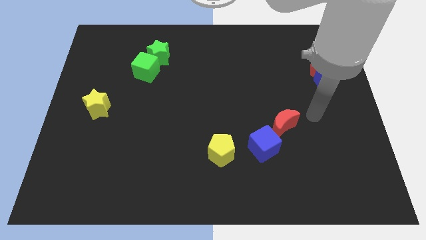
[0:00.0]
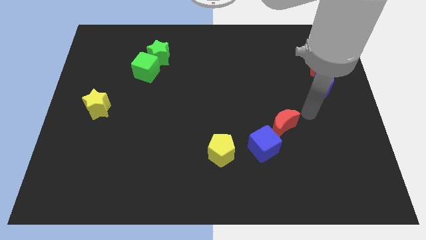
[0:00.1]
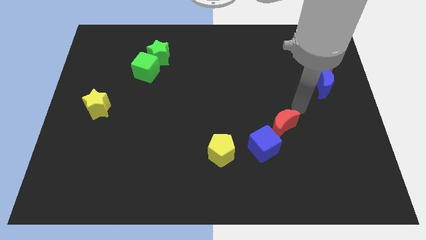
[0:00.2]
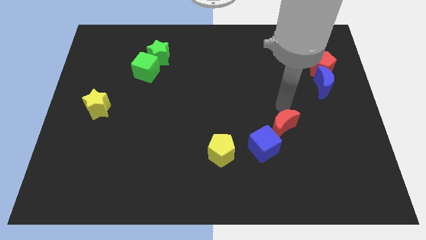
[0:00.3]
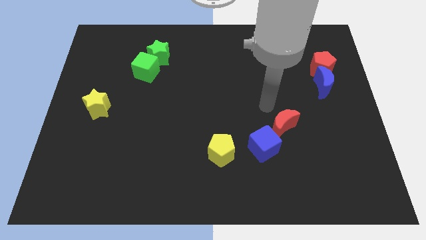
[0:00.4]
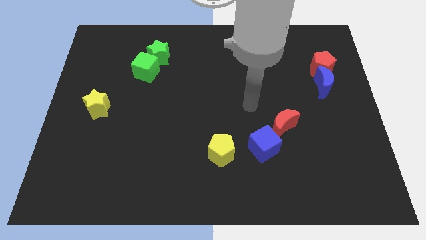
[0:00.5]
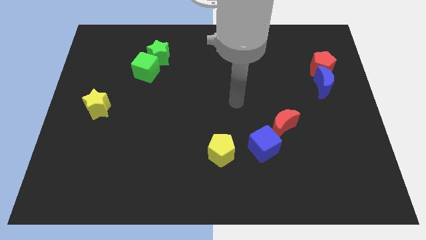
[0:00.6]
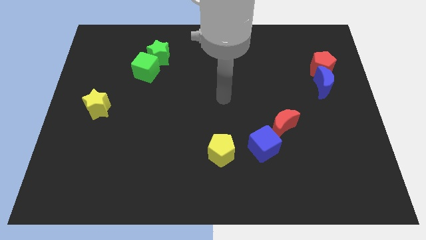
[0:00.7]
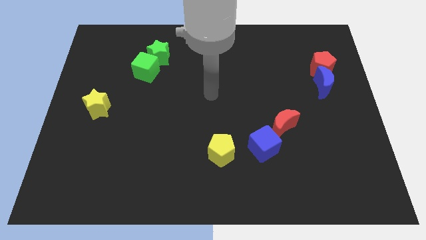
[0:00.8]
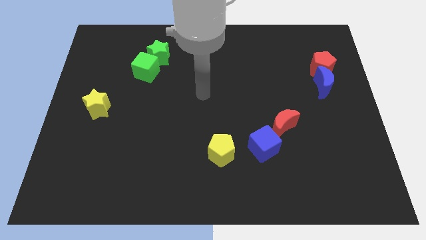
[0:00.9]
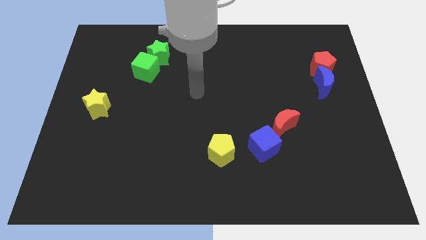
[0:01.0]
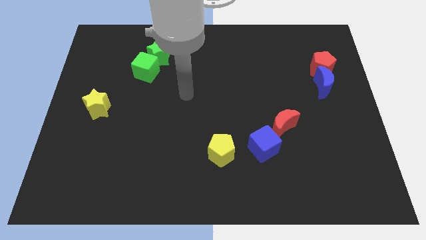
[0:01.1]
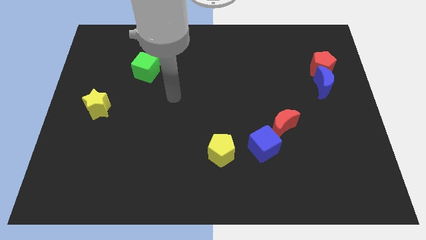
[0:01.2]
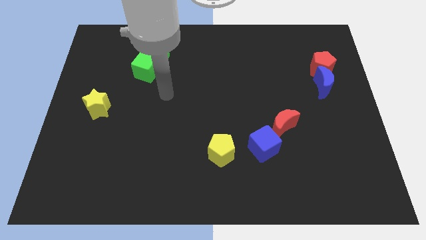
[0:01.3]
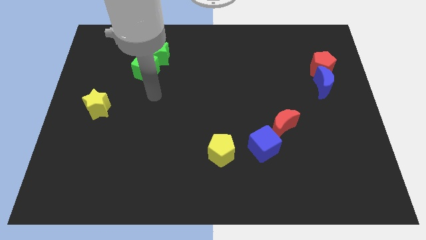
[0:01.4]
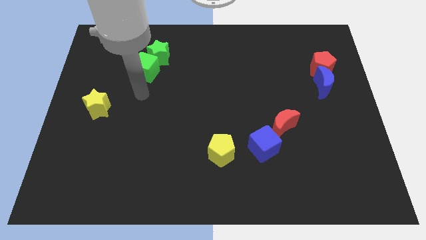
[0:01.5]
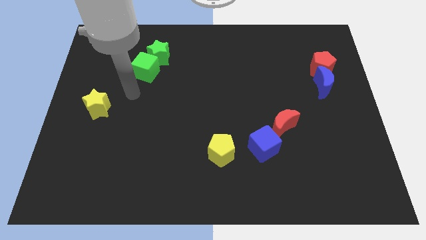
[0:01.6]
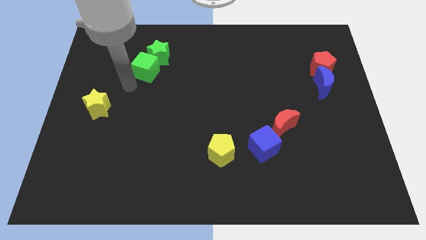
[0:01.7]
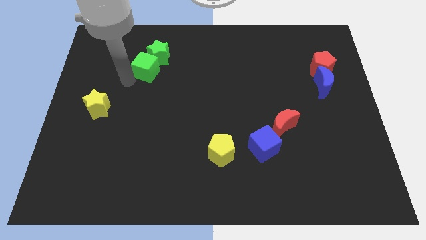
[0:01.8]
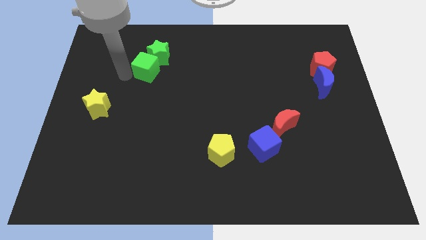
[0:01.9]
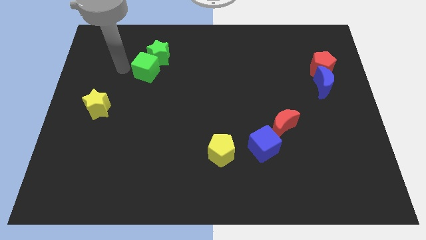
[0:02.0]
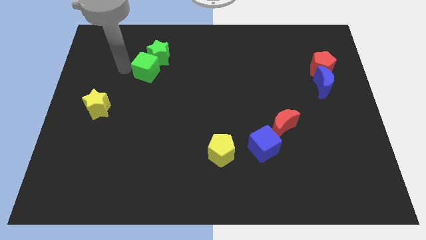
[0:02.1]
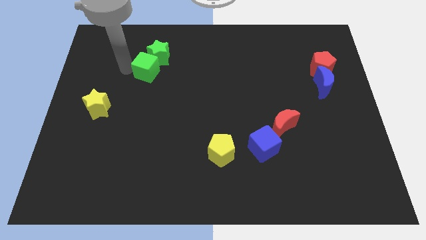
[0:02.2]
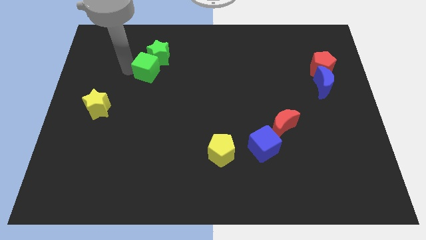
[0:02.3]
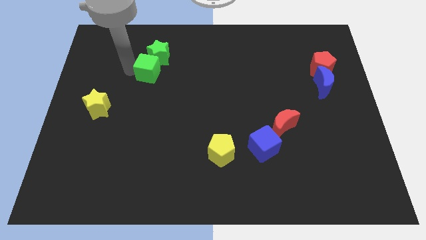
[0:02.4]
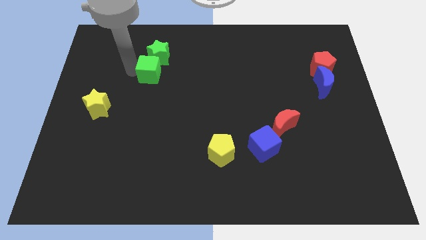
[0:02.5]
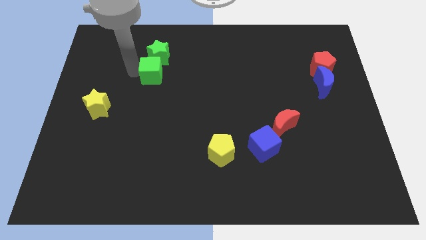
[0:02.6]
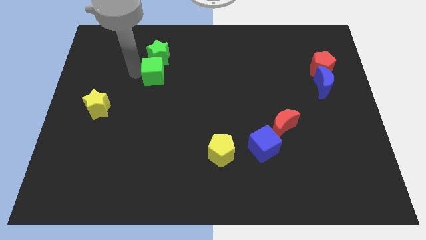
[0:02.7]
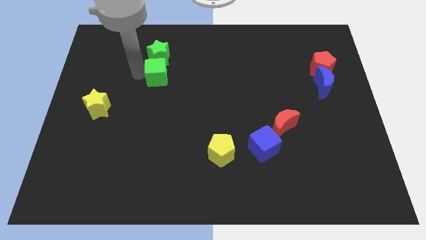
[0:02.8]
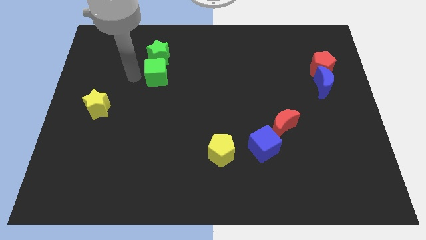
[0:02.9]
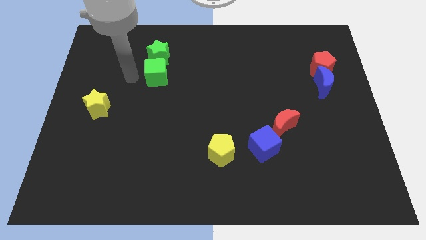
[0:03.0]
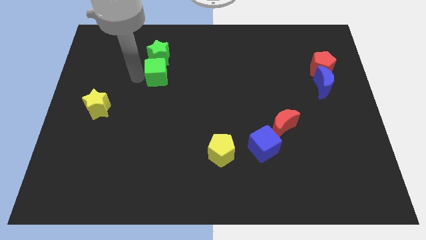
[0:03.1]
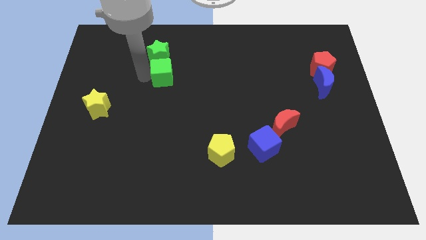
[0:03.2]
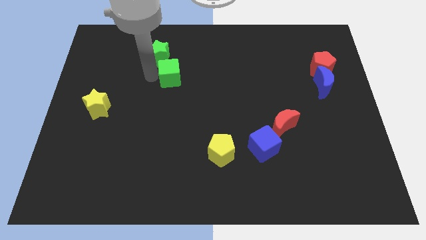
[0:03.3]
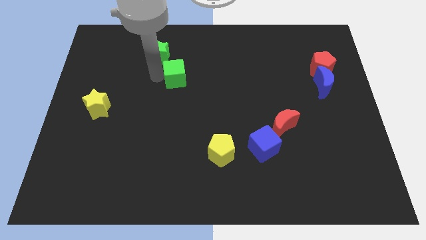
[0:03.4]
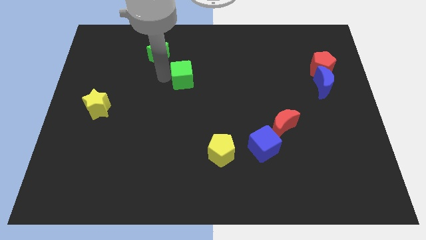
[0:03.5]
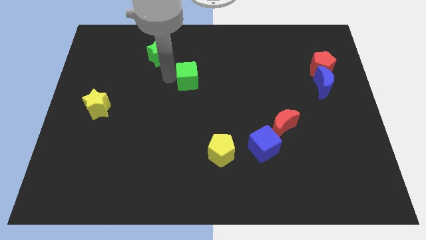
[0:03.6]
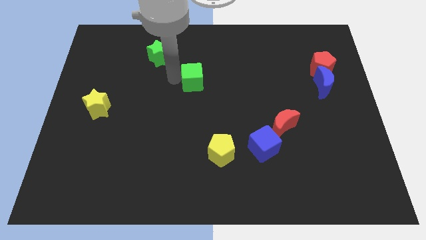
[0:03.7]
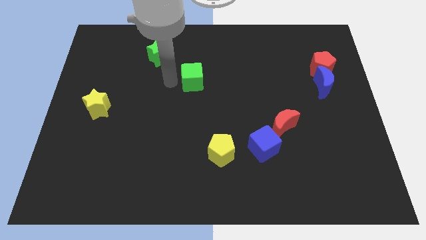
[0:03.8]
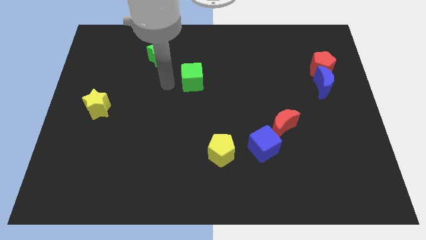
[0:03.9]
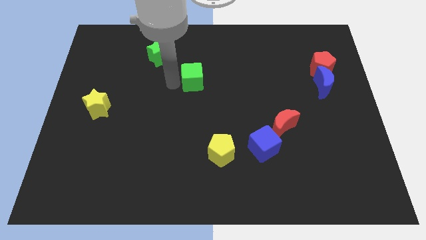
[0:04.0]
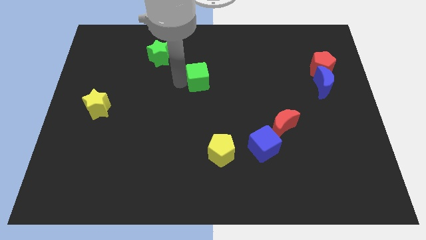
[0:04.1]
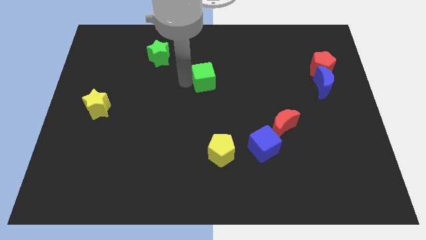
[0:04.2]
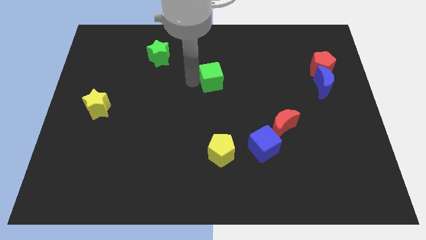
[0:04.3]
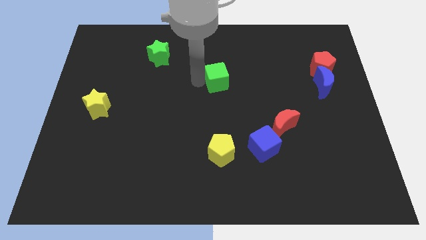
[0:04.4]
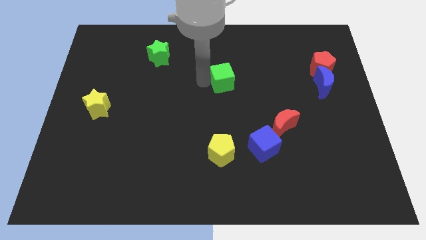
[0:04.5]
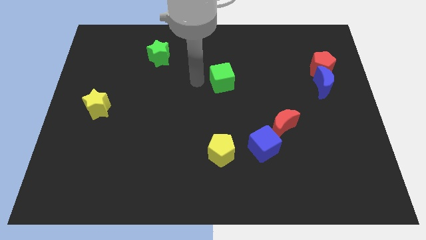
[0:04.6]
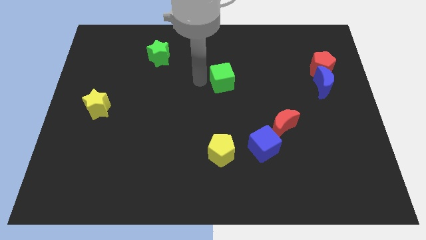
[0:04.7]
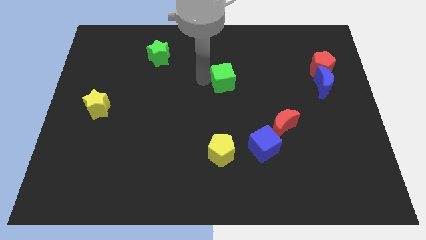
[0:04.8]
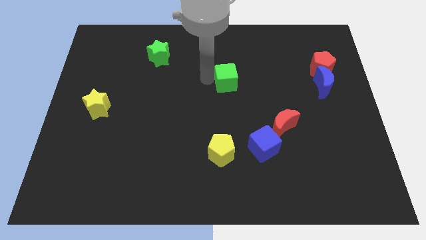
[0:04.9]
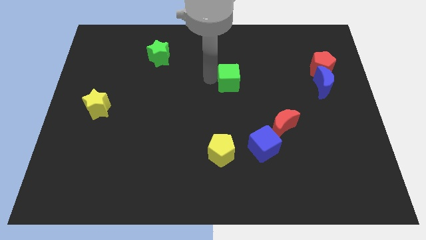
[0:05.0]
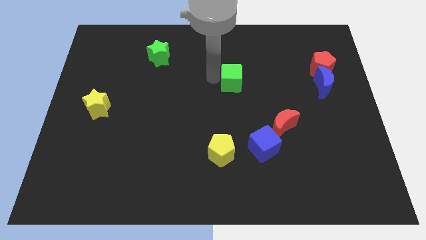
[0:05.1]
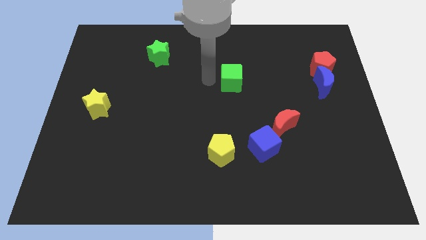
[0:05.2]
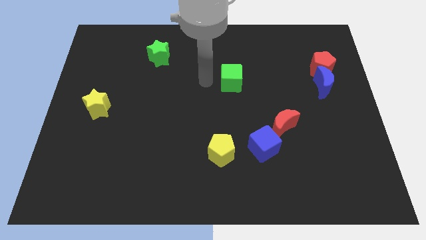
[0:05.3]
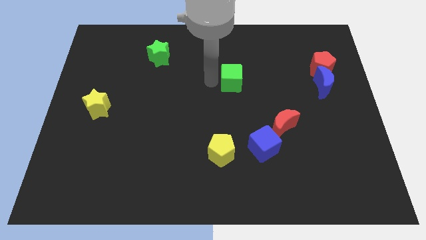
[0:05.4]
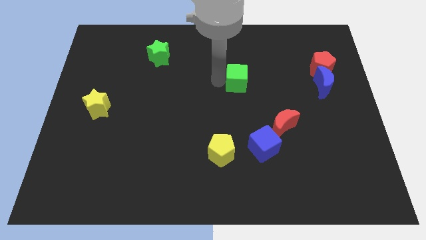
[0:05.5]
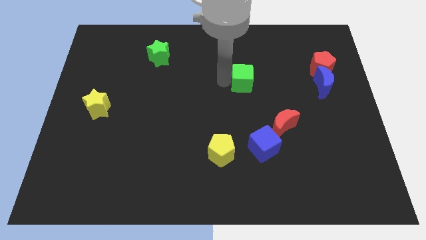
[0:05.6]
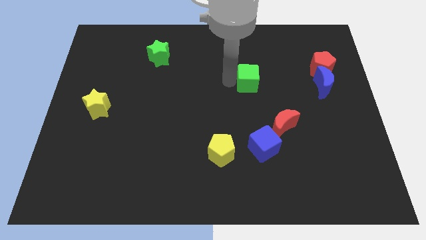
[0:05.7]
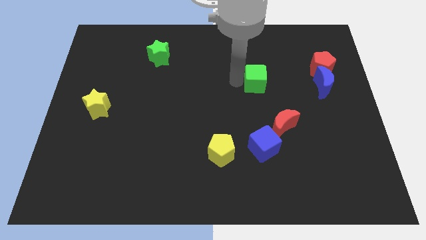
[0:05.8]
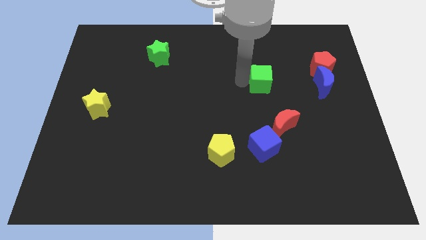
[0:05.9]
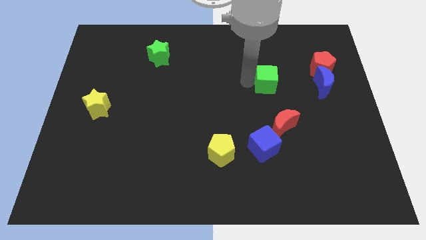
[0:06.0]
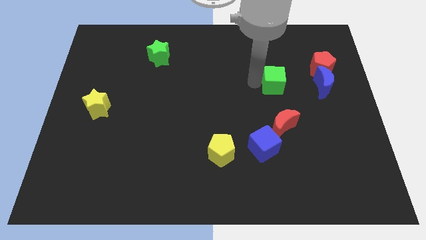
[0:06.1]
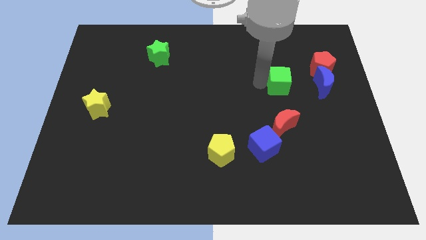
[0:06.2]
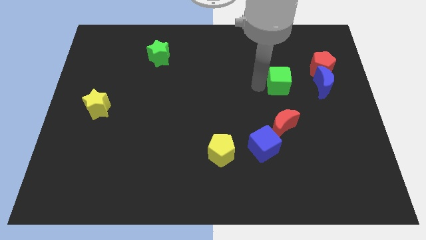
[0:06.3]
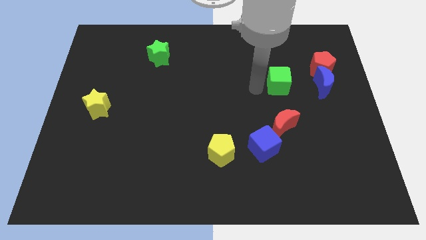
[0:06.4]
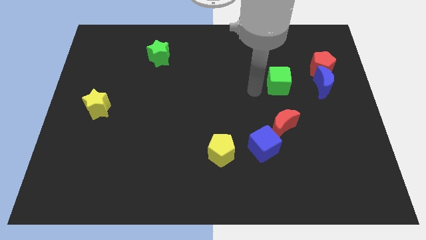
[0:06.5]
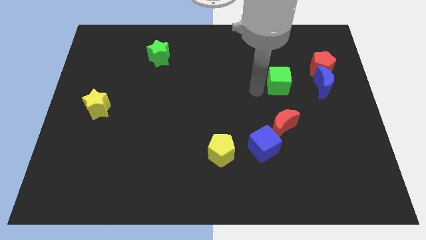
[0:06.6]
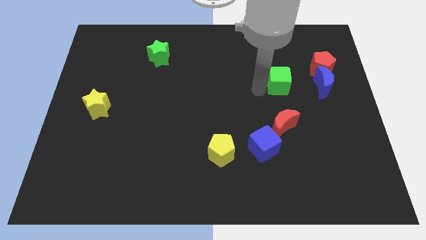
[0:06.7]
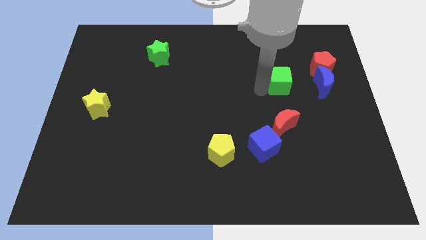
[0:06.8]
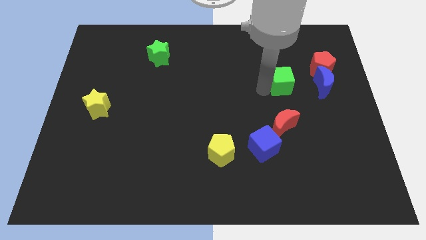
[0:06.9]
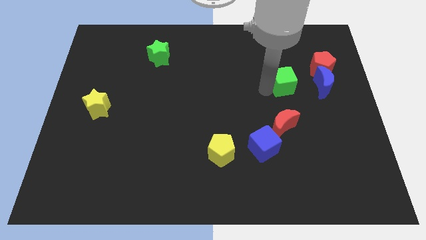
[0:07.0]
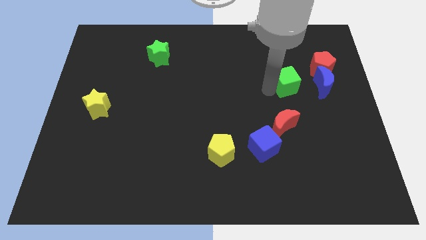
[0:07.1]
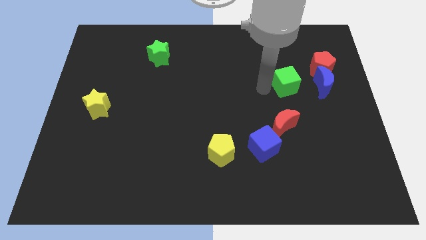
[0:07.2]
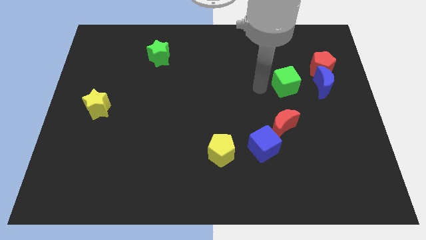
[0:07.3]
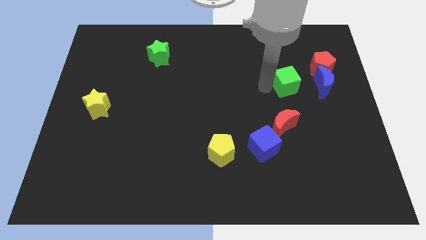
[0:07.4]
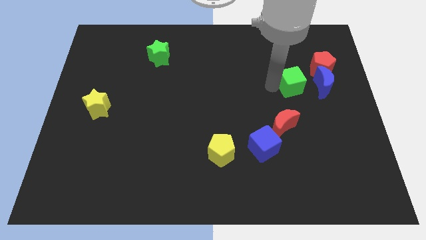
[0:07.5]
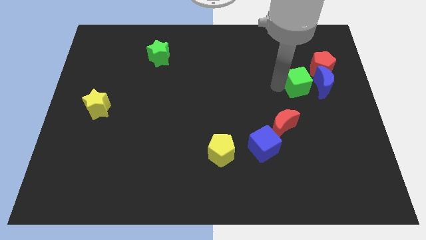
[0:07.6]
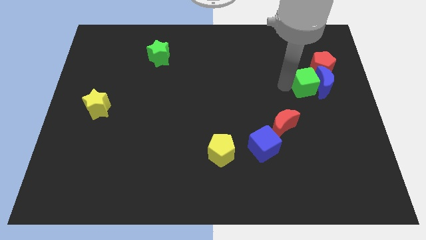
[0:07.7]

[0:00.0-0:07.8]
move the green cube towards the blue moon
